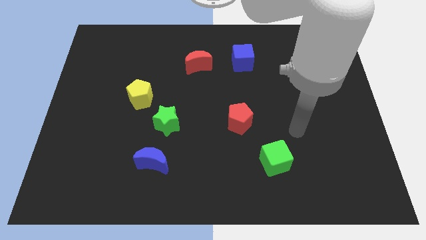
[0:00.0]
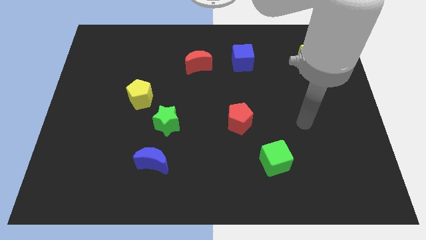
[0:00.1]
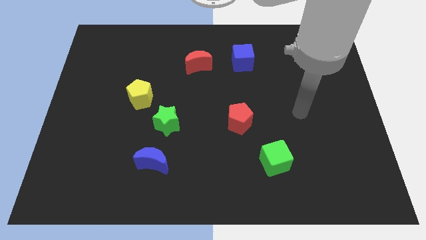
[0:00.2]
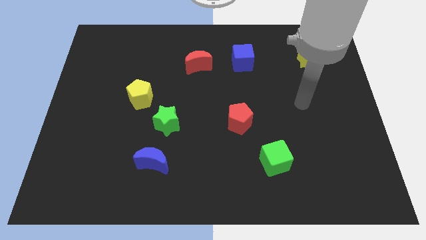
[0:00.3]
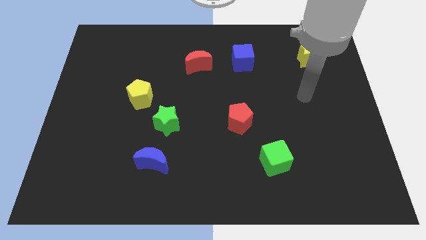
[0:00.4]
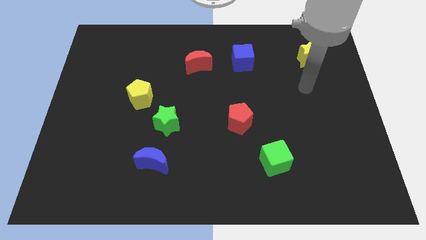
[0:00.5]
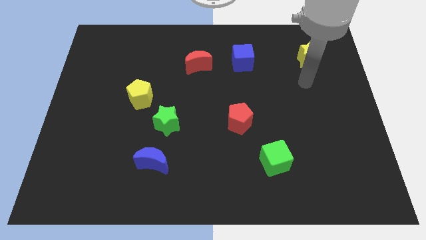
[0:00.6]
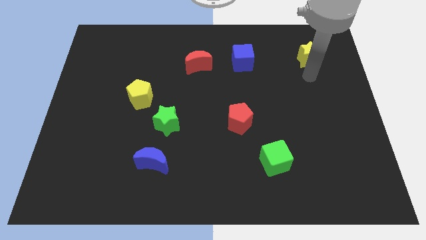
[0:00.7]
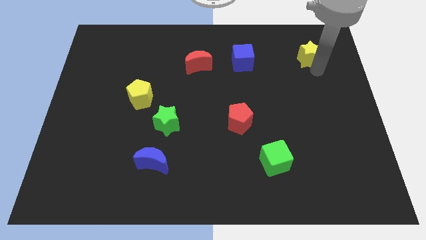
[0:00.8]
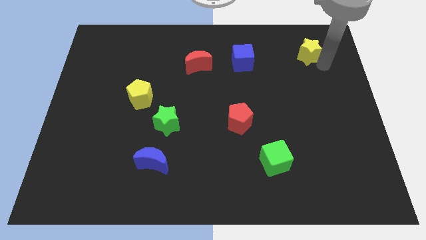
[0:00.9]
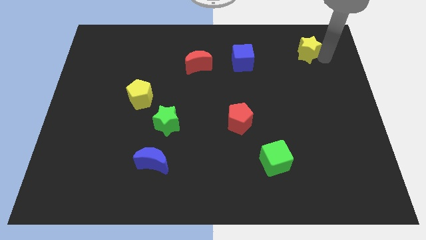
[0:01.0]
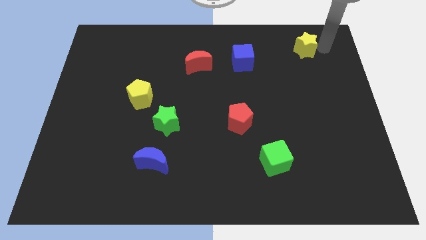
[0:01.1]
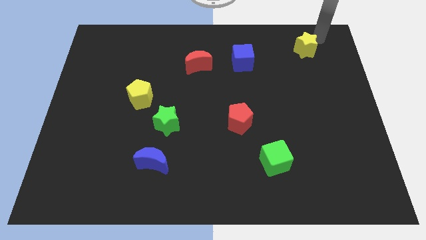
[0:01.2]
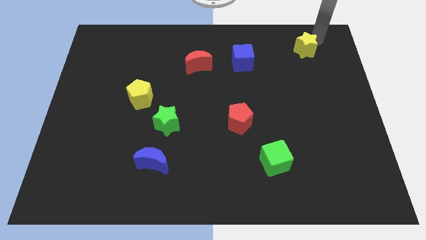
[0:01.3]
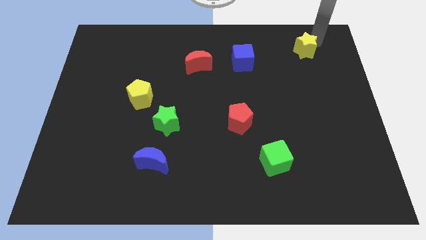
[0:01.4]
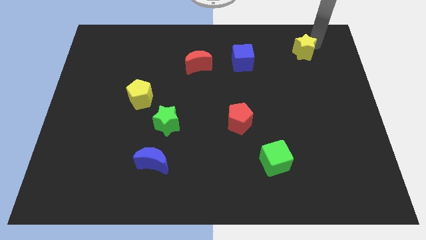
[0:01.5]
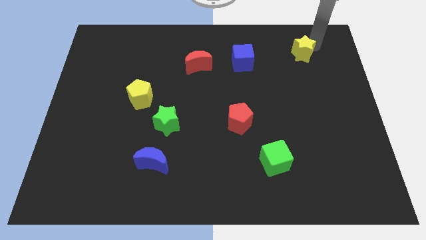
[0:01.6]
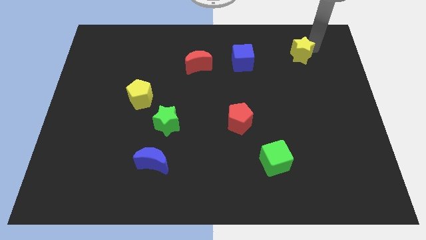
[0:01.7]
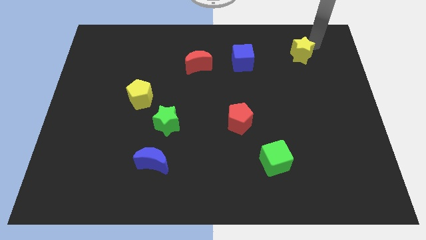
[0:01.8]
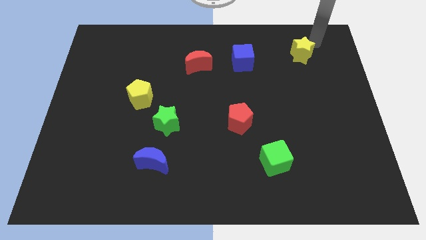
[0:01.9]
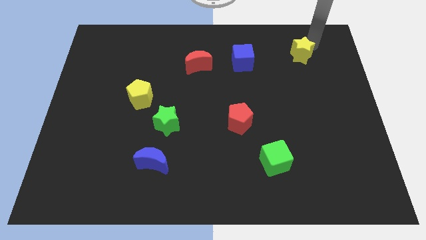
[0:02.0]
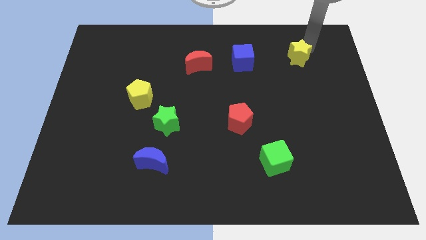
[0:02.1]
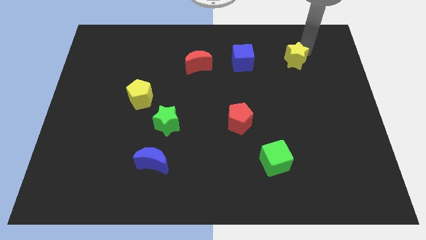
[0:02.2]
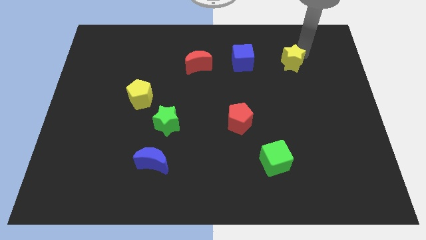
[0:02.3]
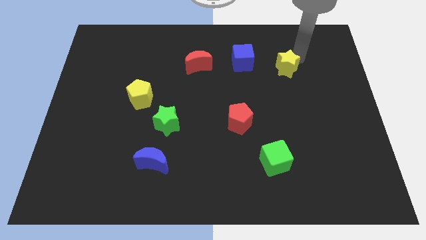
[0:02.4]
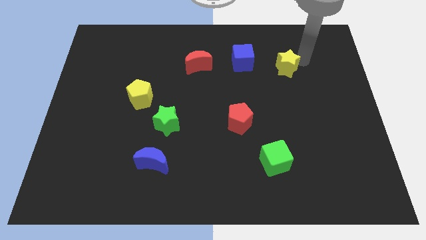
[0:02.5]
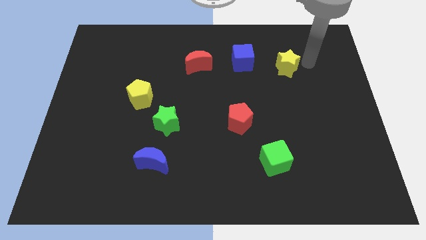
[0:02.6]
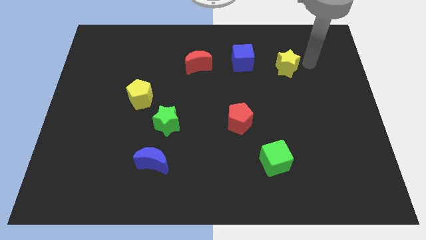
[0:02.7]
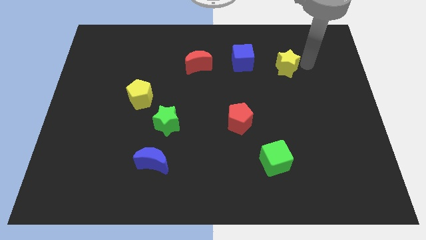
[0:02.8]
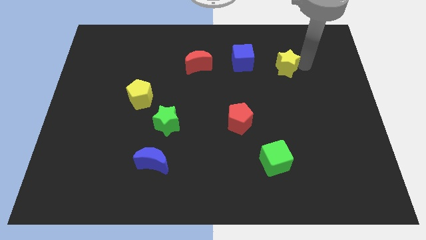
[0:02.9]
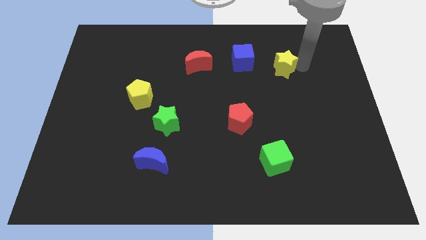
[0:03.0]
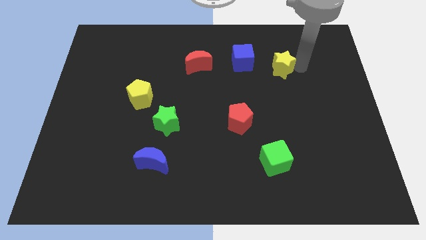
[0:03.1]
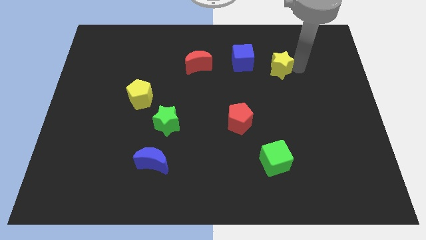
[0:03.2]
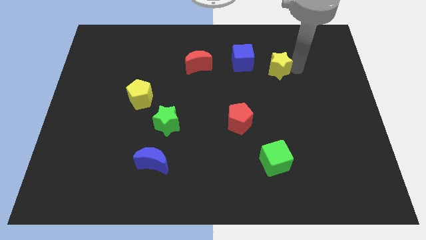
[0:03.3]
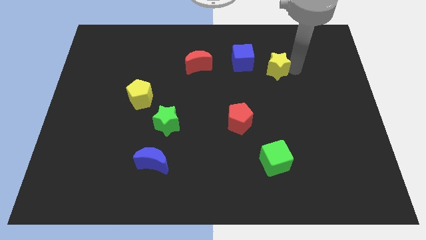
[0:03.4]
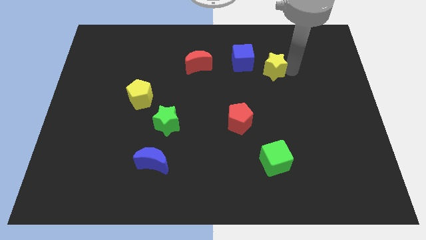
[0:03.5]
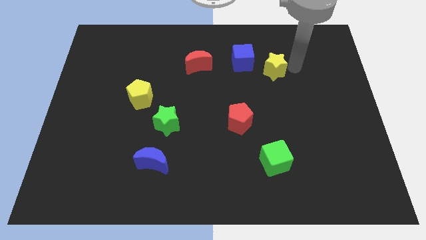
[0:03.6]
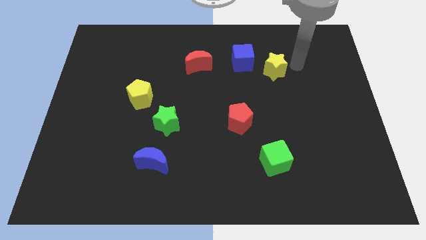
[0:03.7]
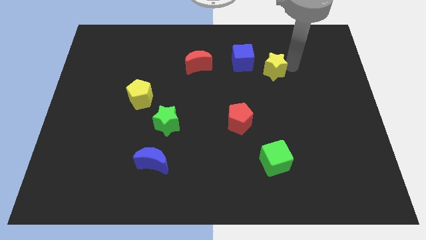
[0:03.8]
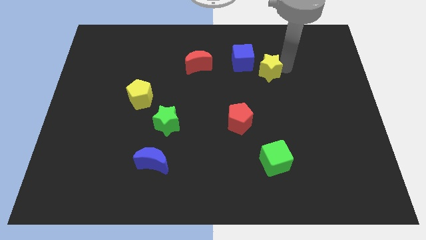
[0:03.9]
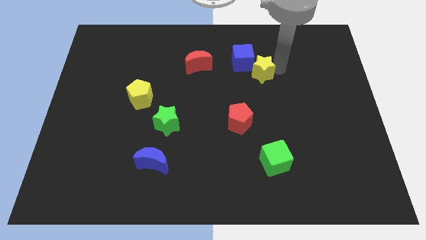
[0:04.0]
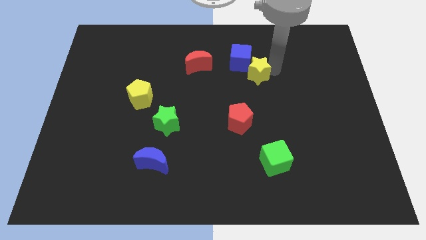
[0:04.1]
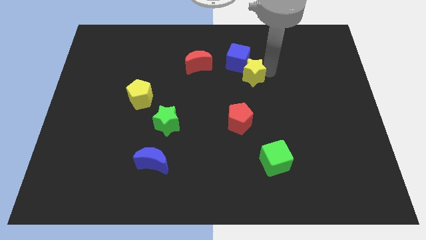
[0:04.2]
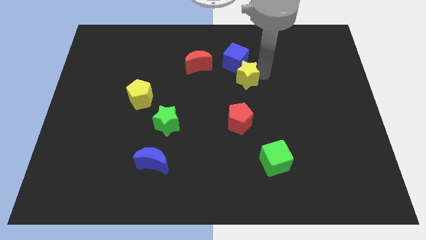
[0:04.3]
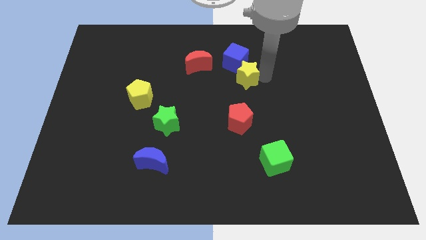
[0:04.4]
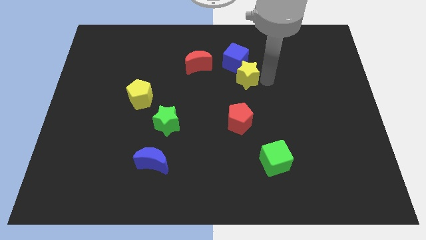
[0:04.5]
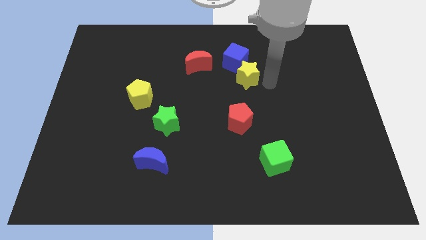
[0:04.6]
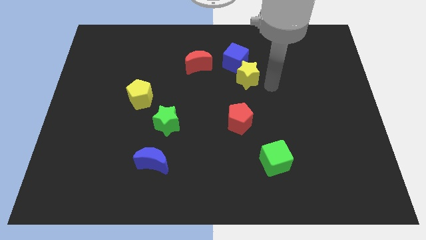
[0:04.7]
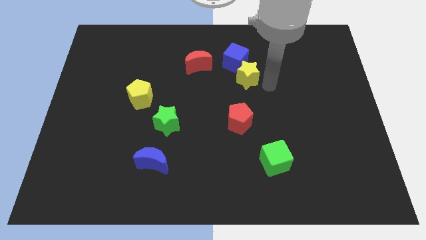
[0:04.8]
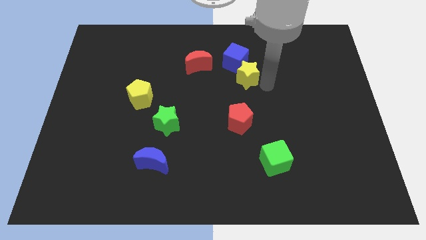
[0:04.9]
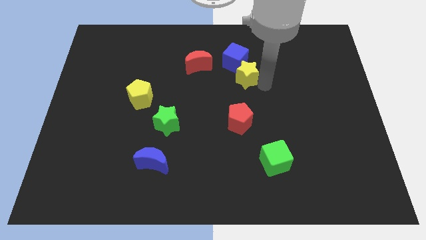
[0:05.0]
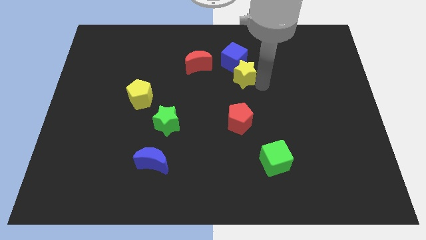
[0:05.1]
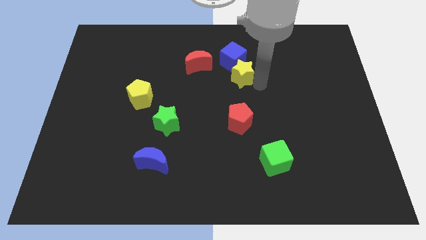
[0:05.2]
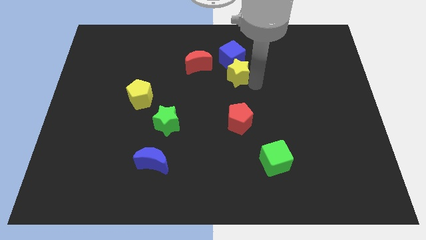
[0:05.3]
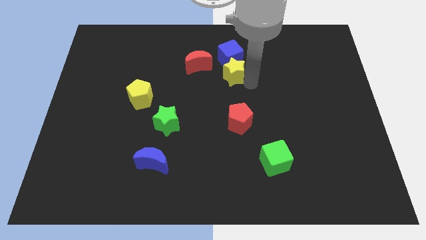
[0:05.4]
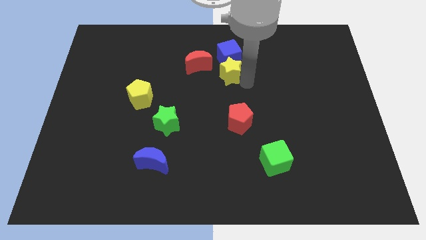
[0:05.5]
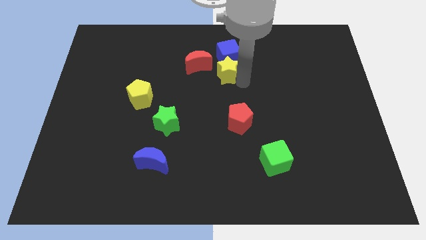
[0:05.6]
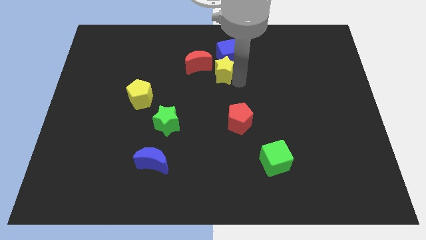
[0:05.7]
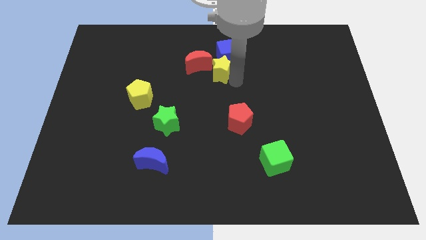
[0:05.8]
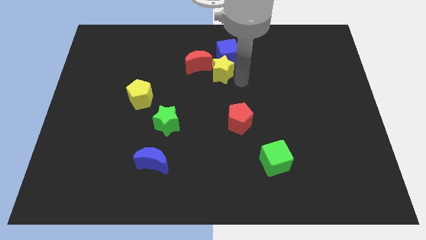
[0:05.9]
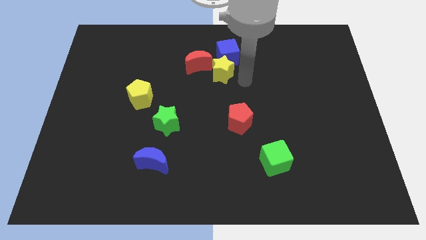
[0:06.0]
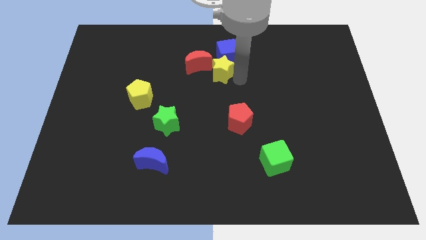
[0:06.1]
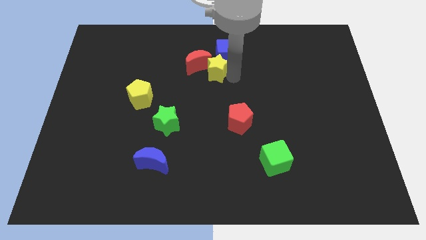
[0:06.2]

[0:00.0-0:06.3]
push the yellow star towards the red moon

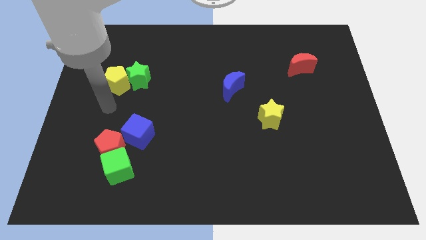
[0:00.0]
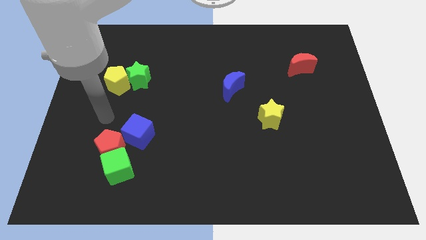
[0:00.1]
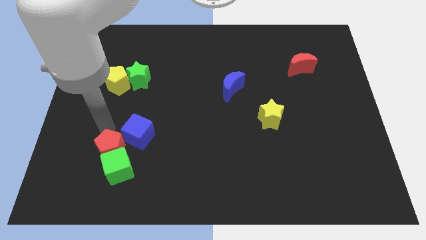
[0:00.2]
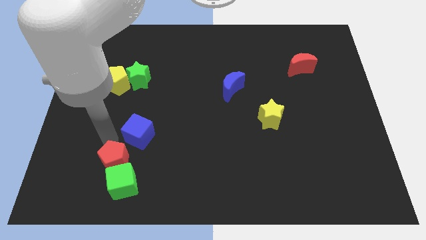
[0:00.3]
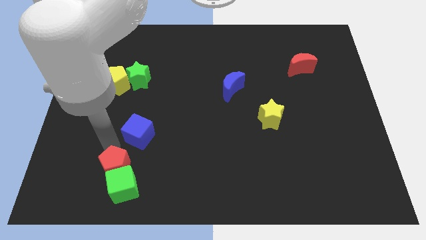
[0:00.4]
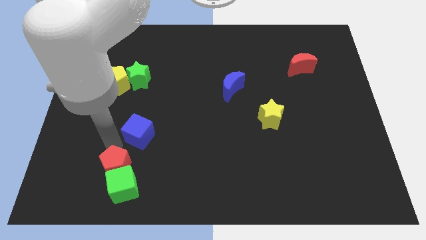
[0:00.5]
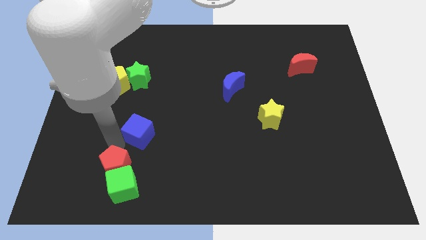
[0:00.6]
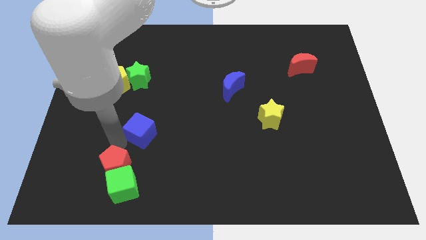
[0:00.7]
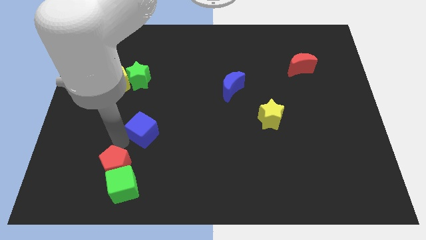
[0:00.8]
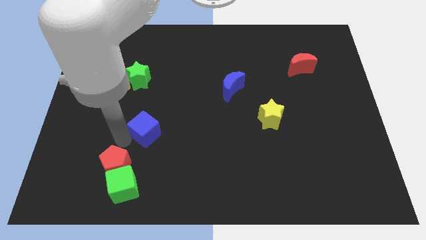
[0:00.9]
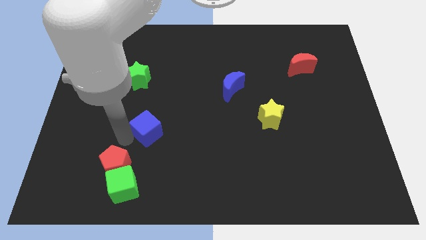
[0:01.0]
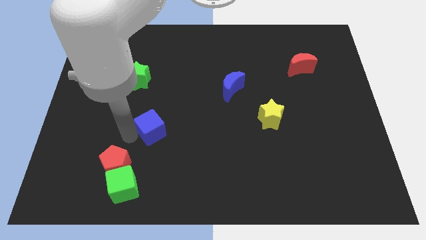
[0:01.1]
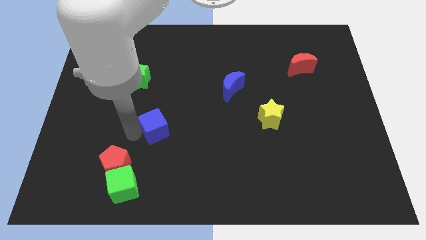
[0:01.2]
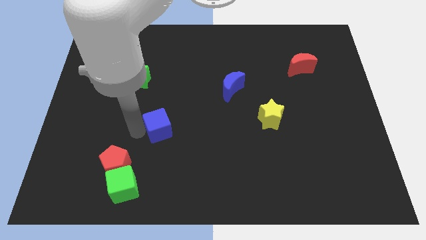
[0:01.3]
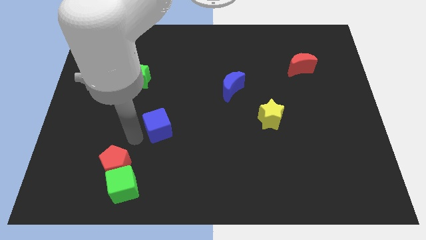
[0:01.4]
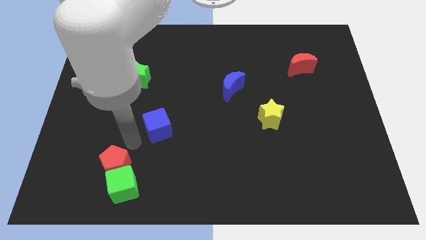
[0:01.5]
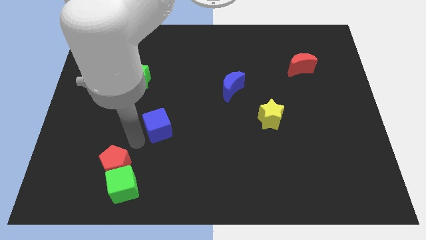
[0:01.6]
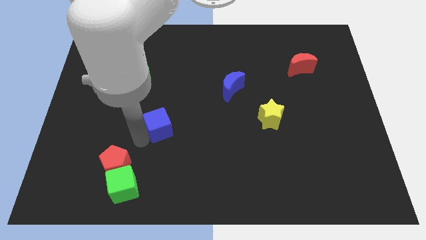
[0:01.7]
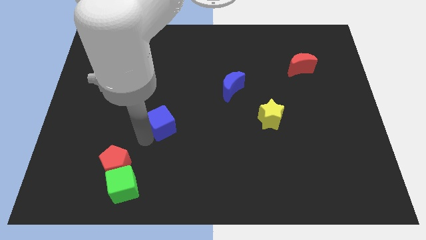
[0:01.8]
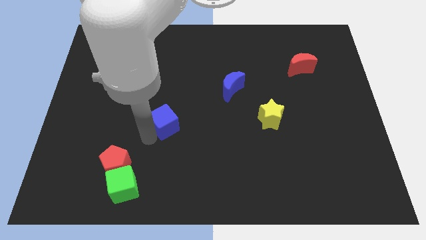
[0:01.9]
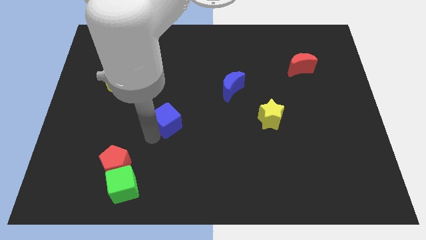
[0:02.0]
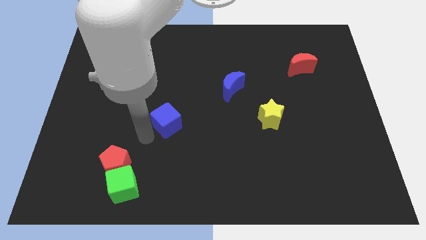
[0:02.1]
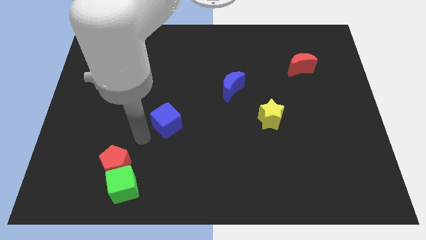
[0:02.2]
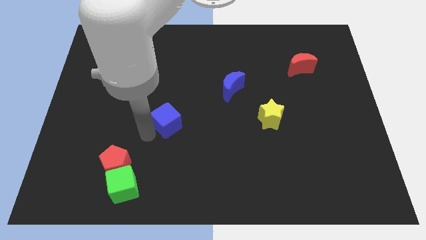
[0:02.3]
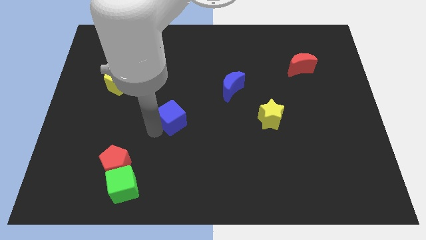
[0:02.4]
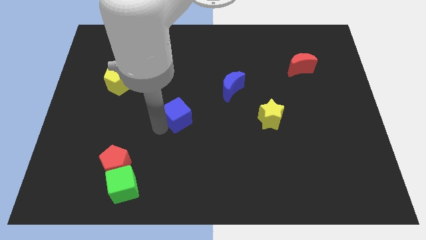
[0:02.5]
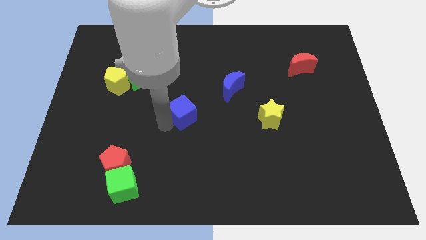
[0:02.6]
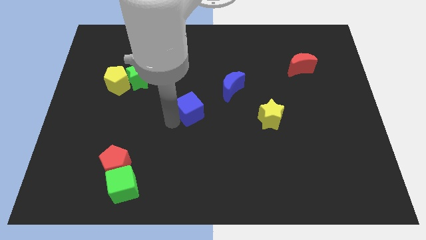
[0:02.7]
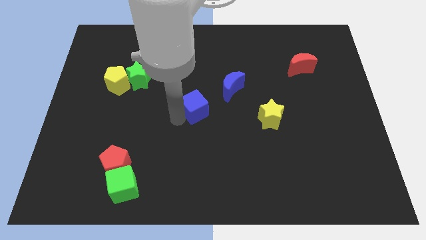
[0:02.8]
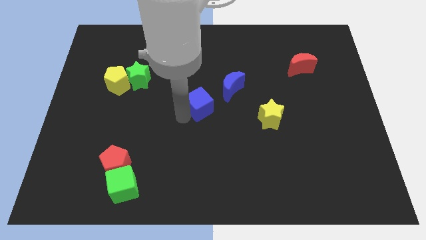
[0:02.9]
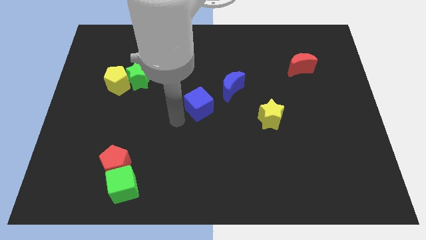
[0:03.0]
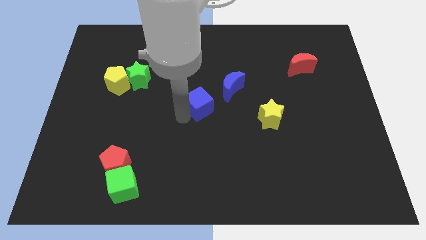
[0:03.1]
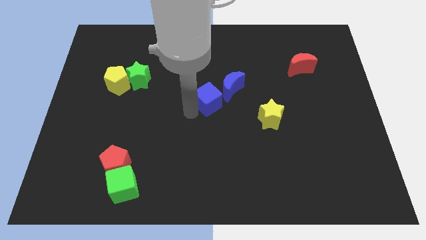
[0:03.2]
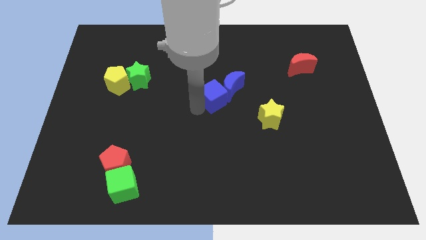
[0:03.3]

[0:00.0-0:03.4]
put the blue cube next to the blue moon
